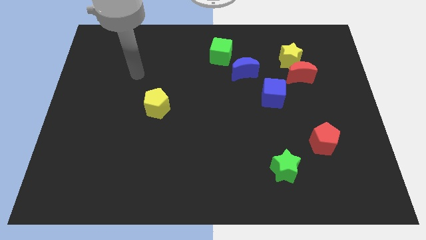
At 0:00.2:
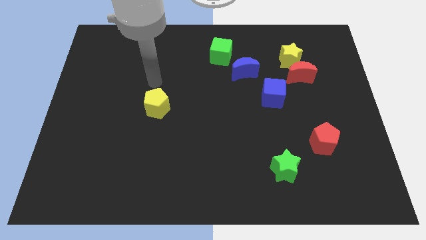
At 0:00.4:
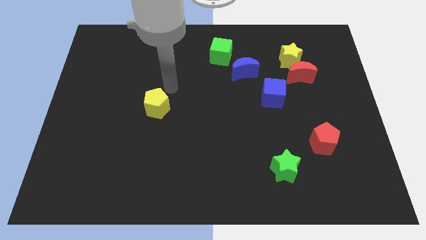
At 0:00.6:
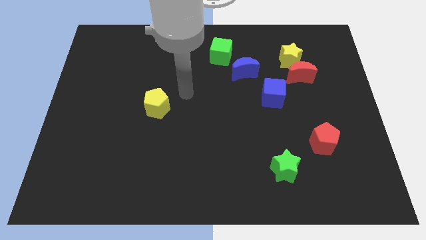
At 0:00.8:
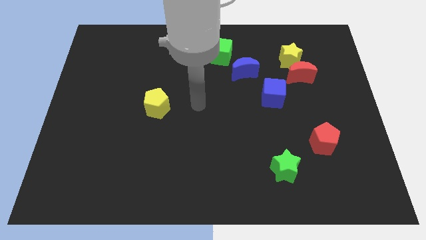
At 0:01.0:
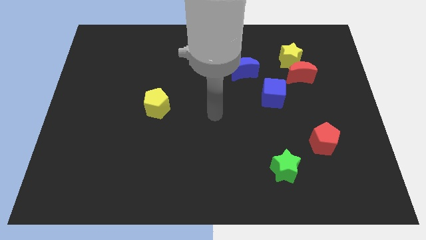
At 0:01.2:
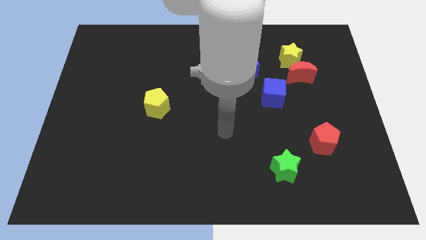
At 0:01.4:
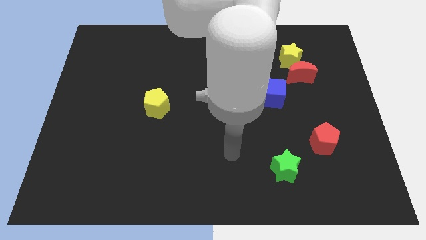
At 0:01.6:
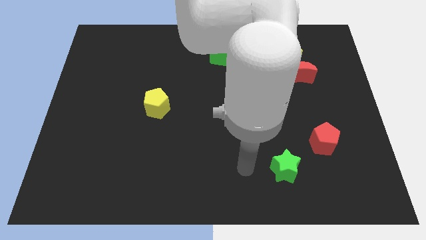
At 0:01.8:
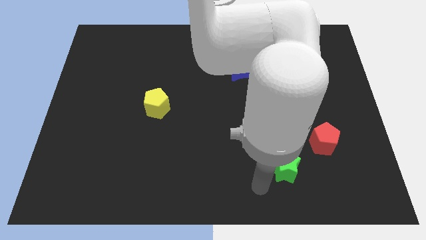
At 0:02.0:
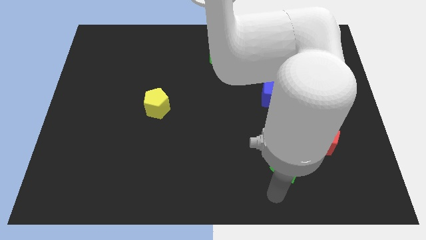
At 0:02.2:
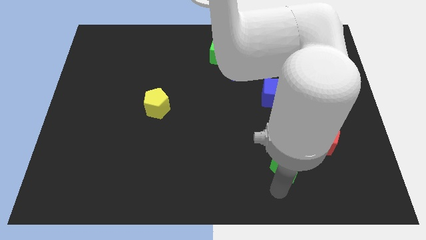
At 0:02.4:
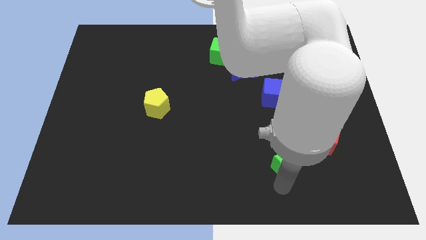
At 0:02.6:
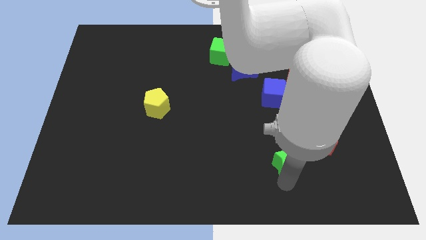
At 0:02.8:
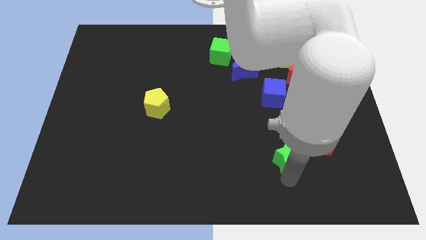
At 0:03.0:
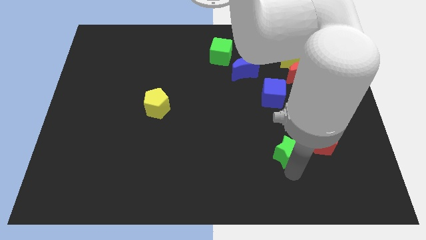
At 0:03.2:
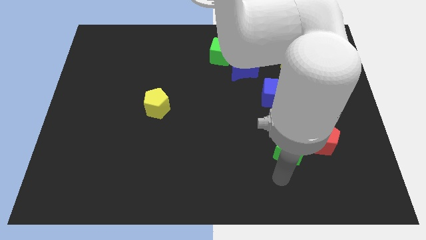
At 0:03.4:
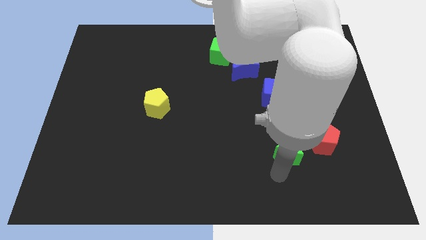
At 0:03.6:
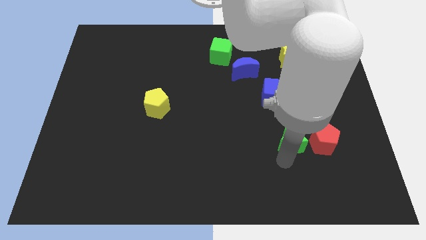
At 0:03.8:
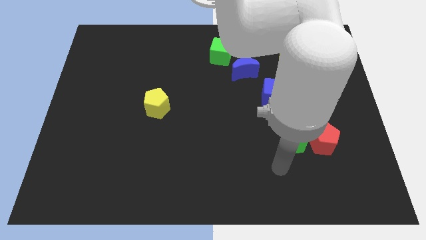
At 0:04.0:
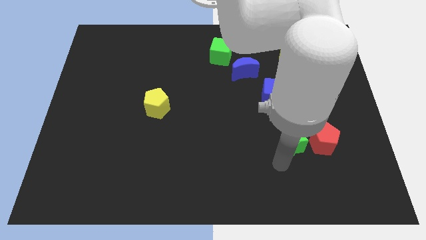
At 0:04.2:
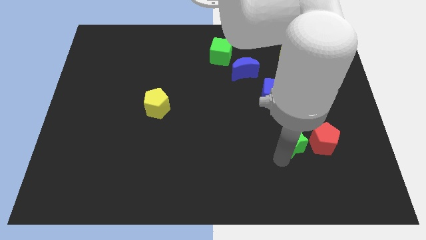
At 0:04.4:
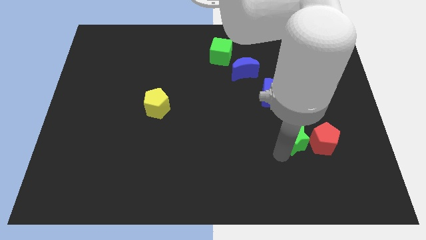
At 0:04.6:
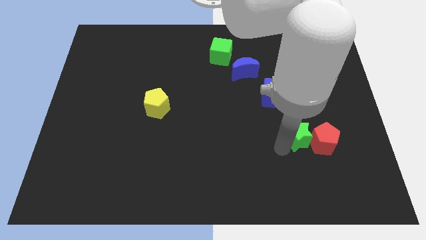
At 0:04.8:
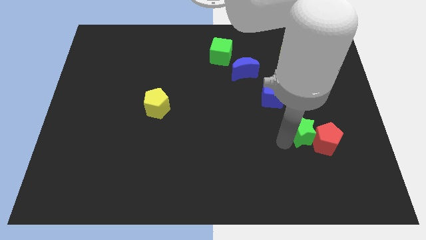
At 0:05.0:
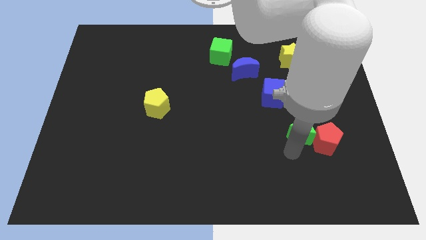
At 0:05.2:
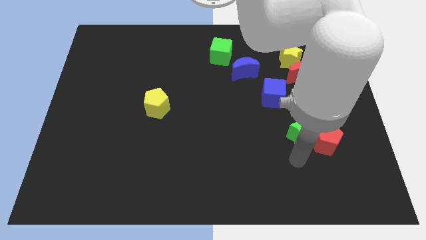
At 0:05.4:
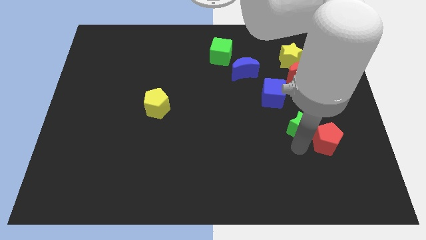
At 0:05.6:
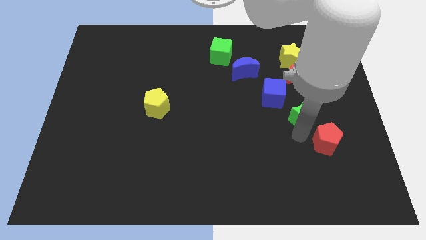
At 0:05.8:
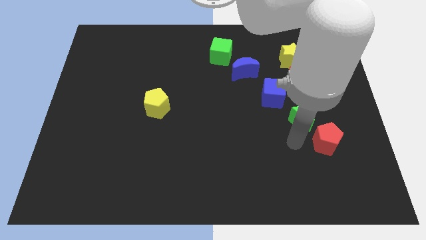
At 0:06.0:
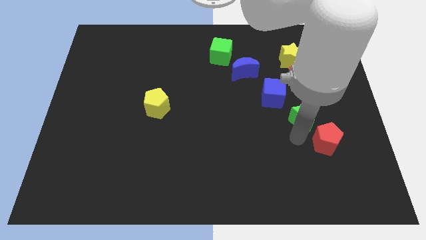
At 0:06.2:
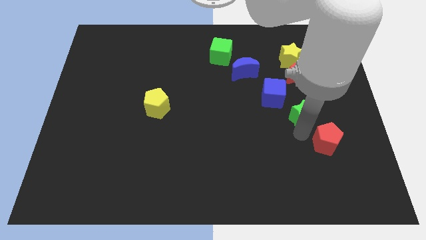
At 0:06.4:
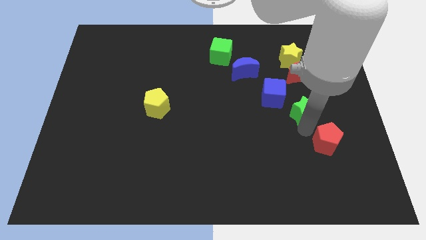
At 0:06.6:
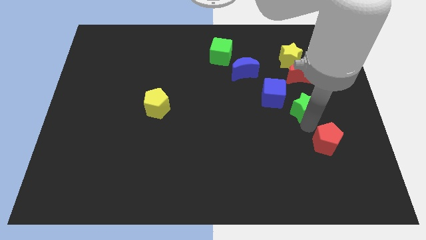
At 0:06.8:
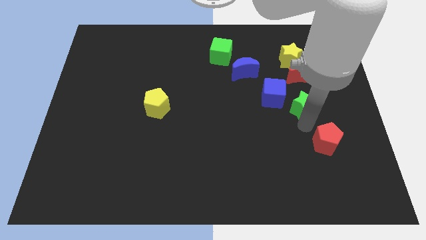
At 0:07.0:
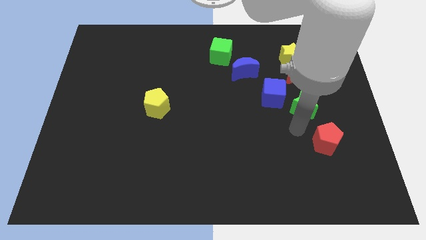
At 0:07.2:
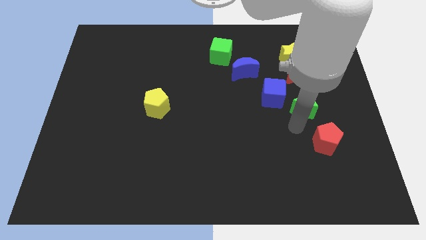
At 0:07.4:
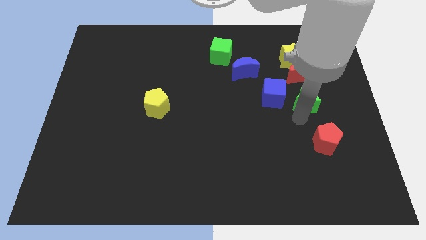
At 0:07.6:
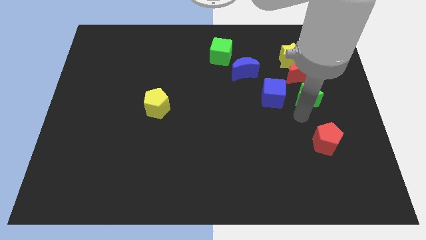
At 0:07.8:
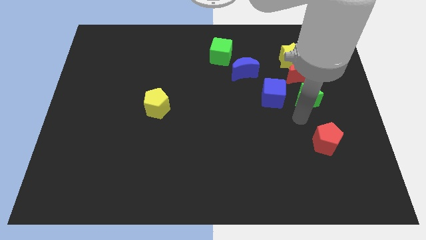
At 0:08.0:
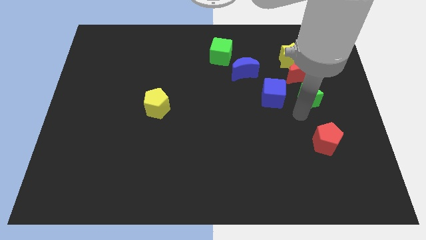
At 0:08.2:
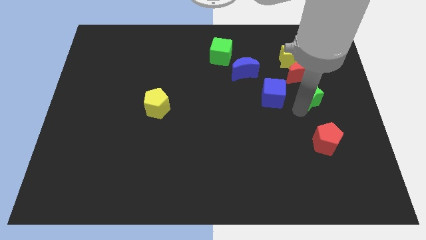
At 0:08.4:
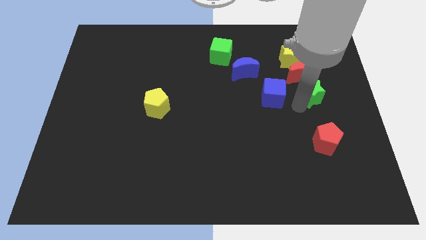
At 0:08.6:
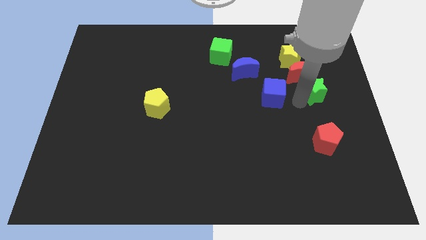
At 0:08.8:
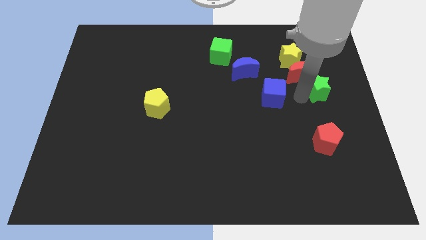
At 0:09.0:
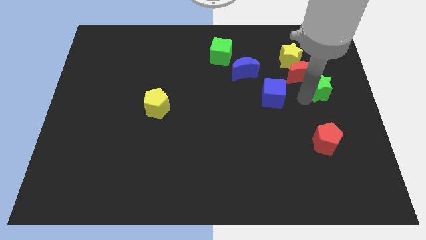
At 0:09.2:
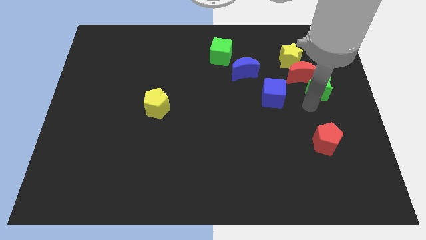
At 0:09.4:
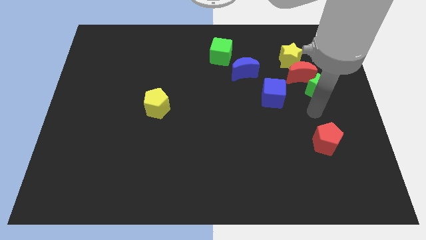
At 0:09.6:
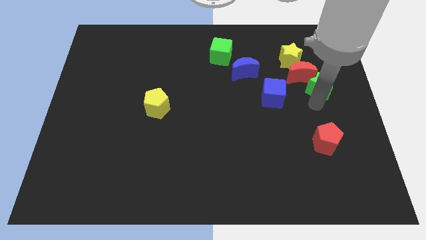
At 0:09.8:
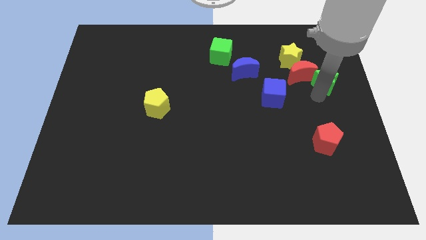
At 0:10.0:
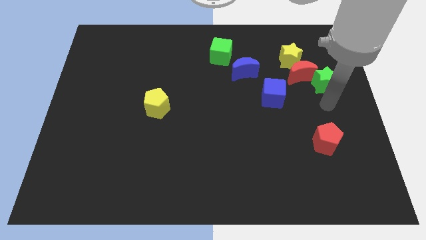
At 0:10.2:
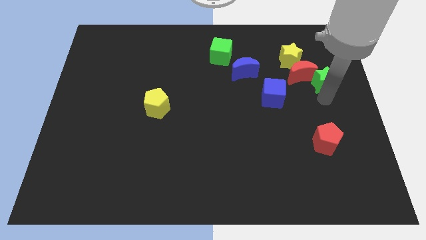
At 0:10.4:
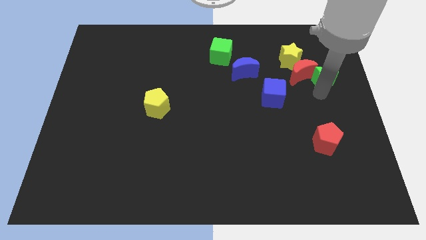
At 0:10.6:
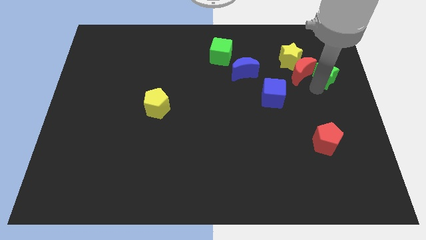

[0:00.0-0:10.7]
put the green star to the top right of the red moon

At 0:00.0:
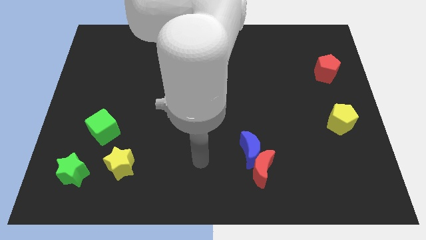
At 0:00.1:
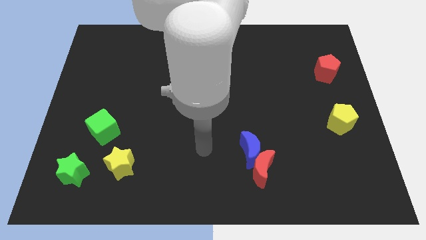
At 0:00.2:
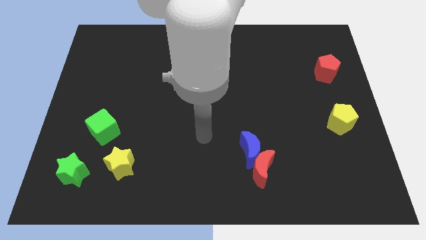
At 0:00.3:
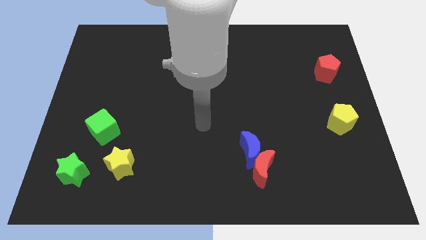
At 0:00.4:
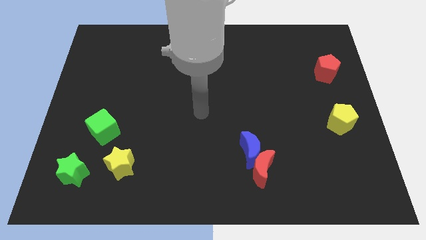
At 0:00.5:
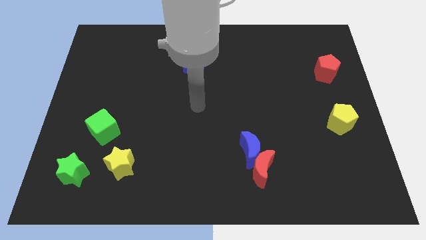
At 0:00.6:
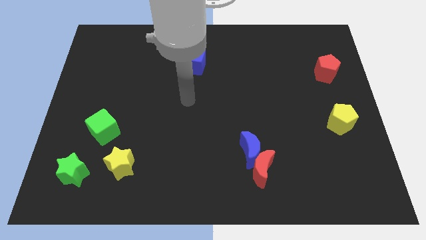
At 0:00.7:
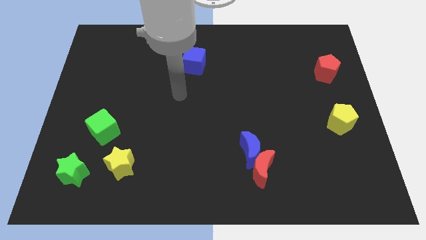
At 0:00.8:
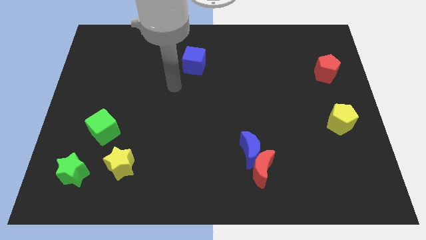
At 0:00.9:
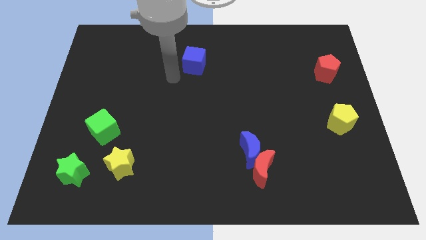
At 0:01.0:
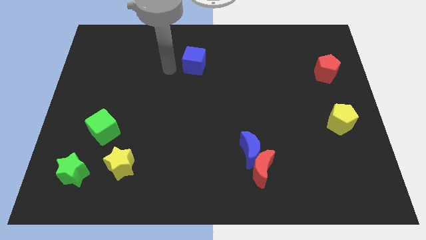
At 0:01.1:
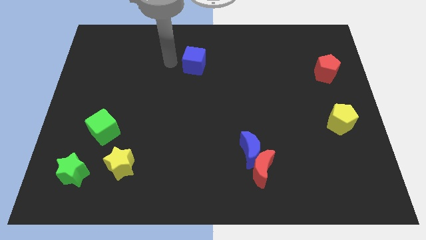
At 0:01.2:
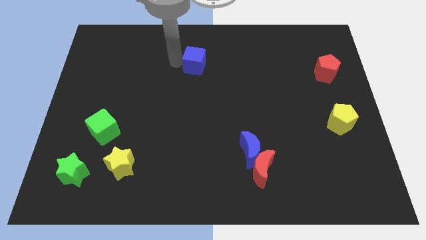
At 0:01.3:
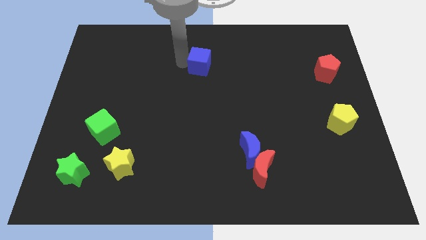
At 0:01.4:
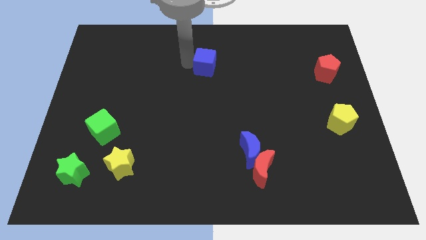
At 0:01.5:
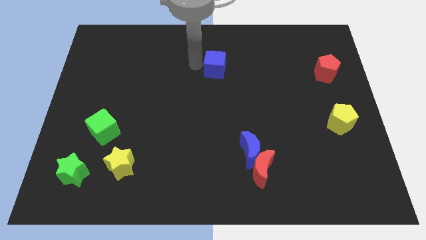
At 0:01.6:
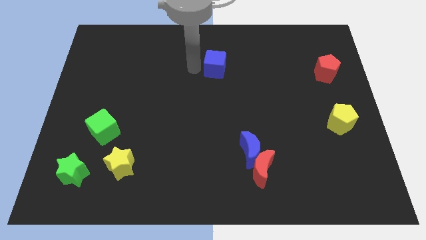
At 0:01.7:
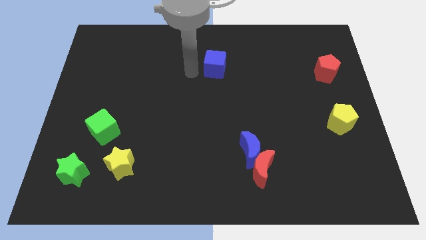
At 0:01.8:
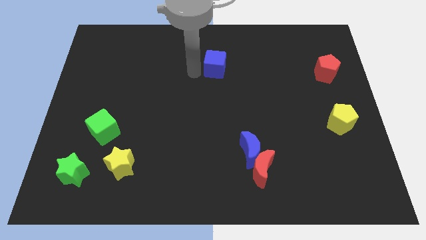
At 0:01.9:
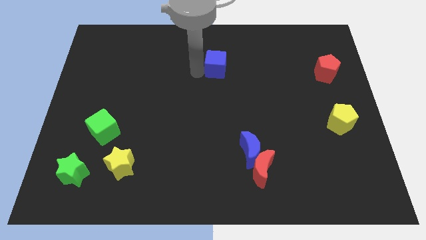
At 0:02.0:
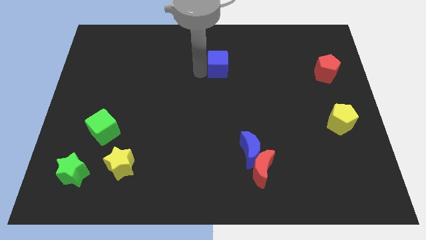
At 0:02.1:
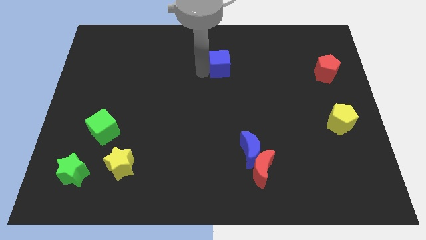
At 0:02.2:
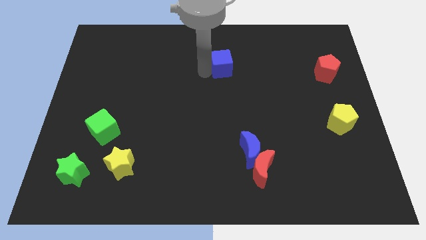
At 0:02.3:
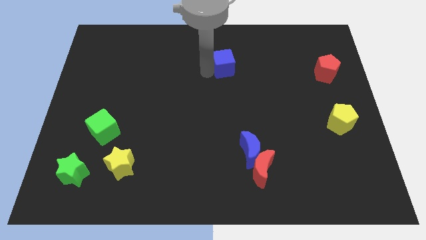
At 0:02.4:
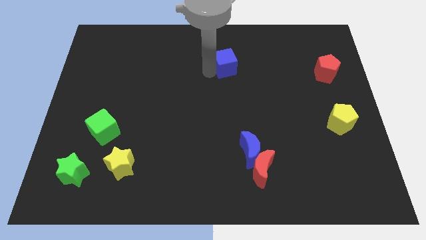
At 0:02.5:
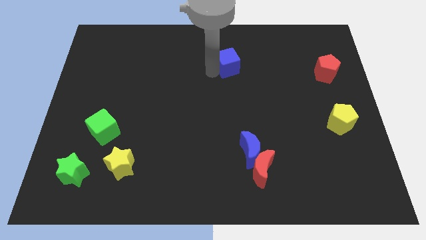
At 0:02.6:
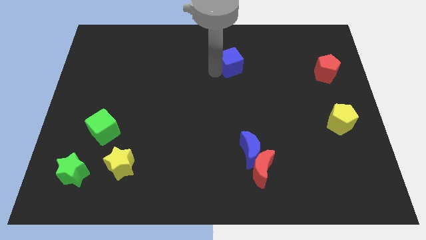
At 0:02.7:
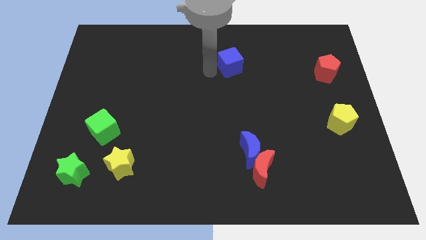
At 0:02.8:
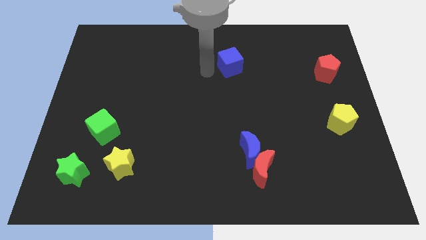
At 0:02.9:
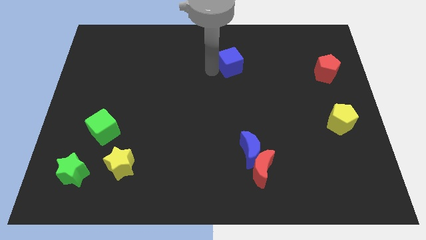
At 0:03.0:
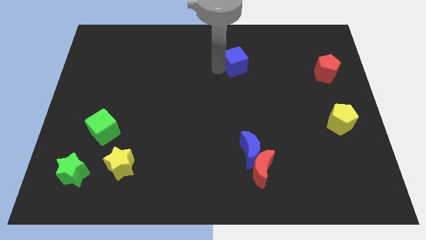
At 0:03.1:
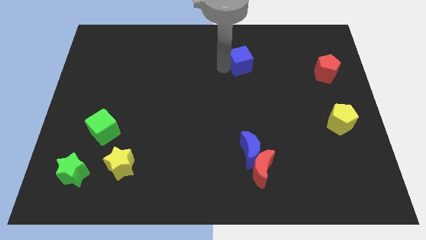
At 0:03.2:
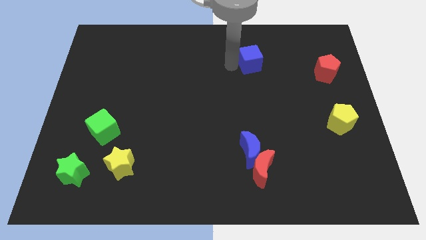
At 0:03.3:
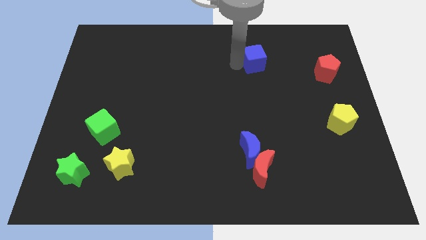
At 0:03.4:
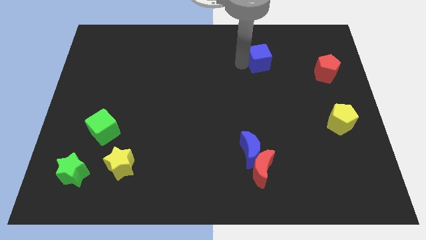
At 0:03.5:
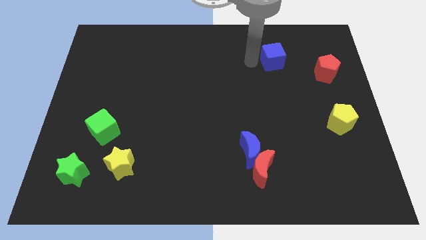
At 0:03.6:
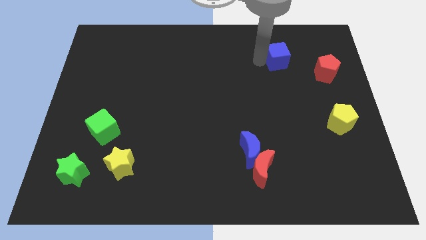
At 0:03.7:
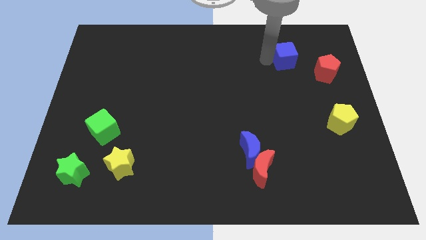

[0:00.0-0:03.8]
slide the blue cube to the top left of the red pentagon
